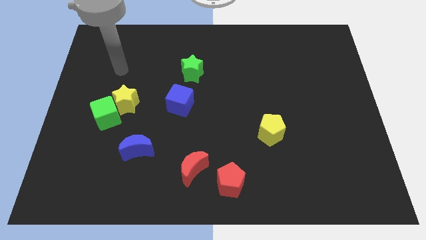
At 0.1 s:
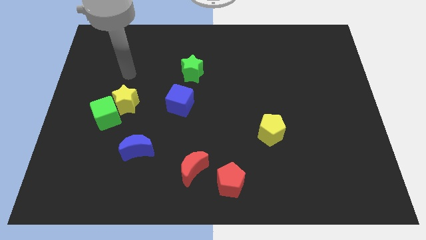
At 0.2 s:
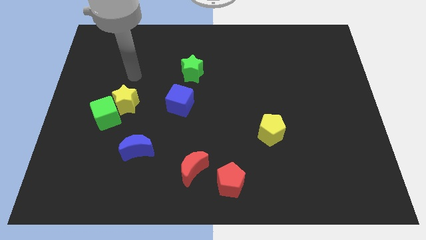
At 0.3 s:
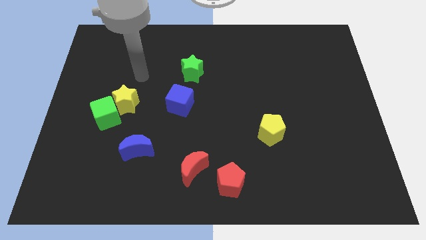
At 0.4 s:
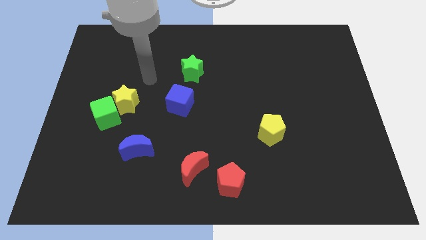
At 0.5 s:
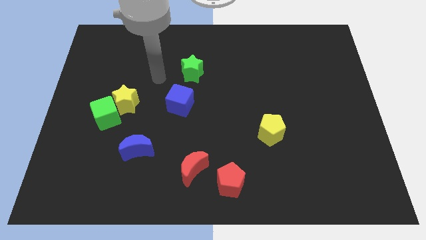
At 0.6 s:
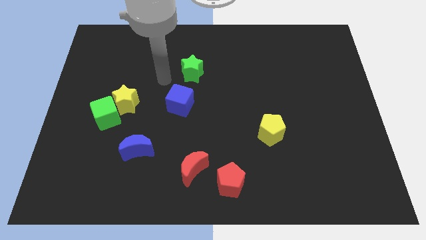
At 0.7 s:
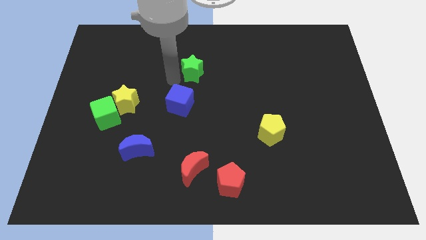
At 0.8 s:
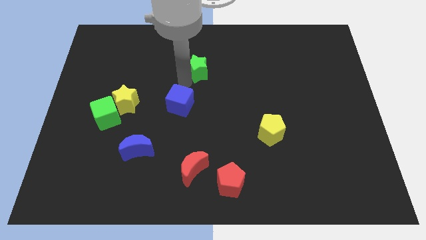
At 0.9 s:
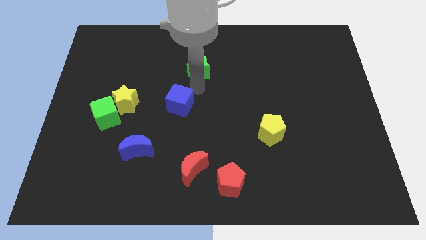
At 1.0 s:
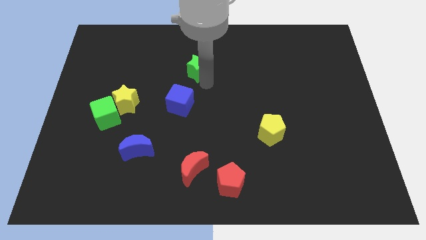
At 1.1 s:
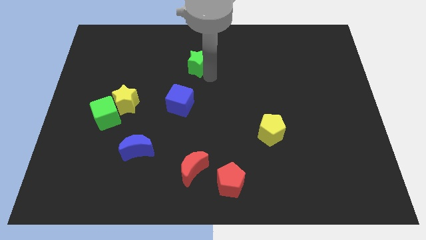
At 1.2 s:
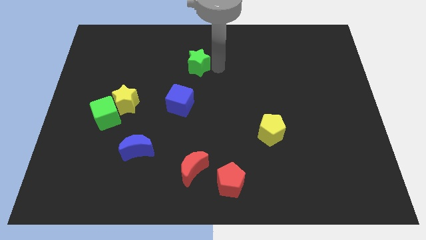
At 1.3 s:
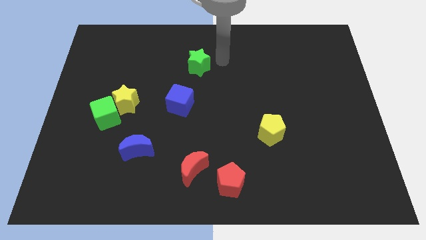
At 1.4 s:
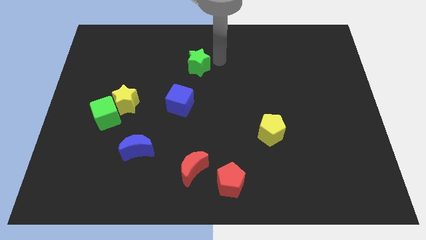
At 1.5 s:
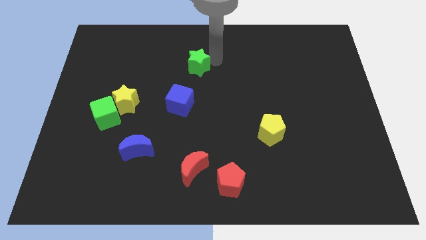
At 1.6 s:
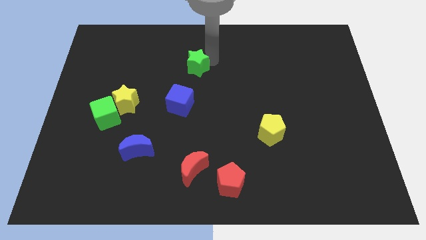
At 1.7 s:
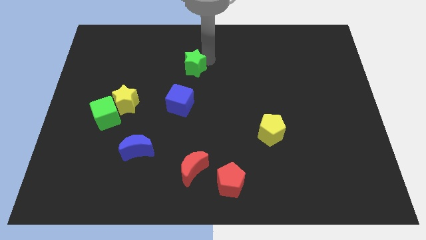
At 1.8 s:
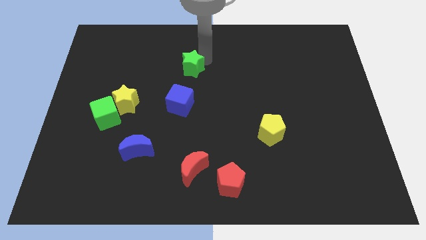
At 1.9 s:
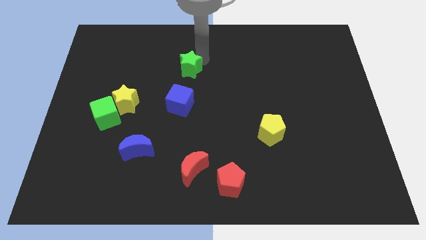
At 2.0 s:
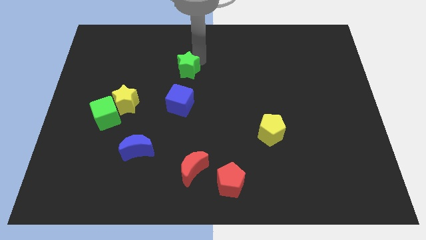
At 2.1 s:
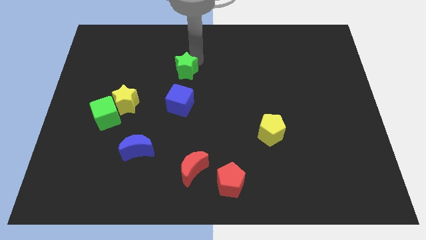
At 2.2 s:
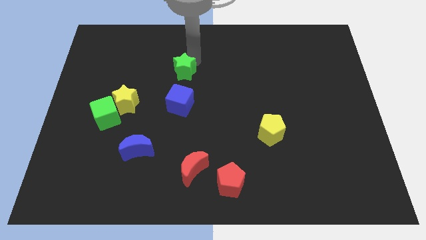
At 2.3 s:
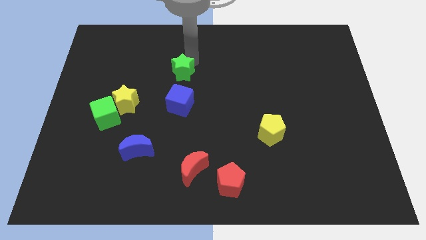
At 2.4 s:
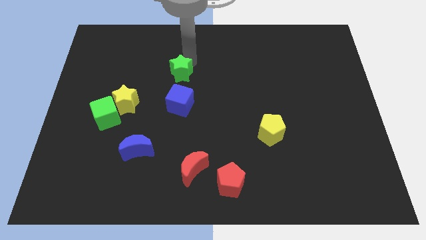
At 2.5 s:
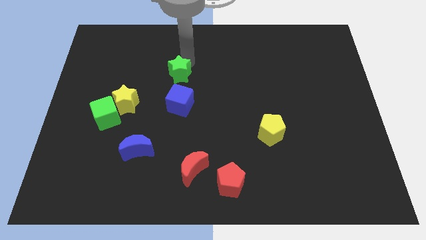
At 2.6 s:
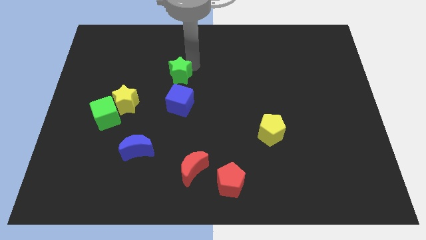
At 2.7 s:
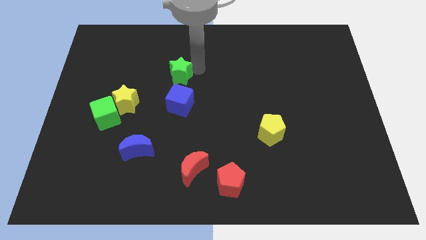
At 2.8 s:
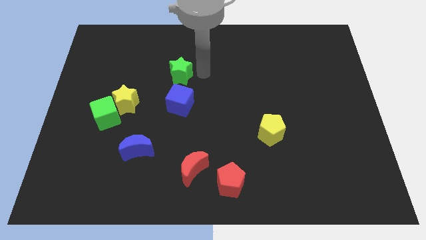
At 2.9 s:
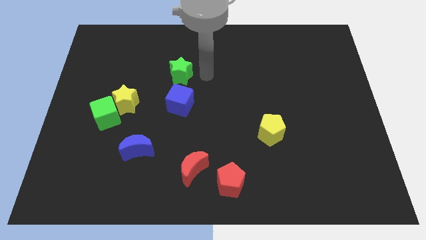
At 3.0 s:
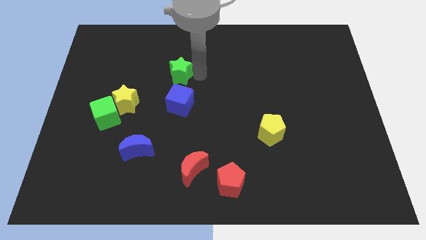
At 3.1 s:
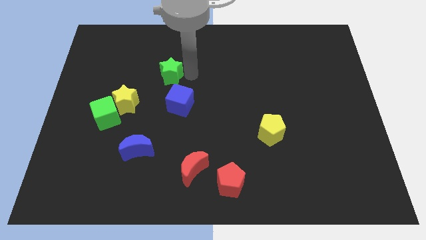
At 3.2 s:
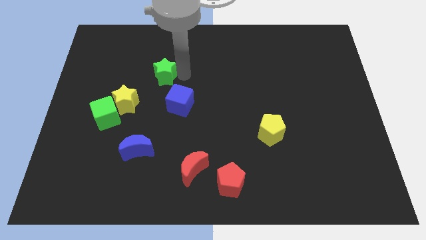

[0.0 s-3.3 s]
slide the green star left slightly

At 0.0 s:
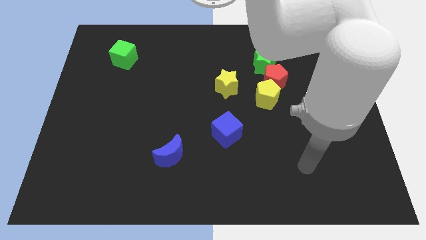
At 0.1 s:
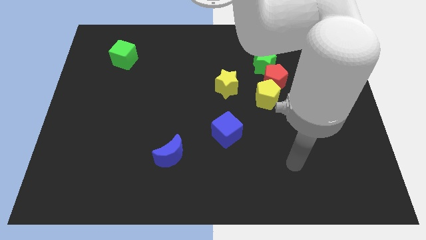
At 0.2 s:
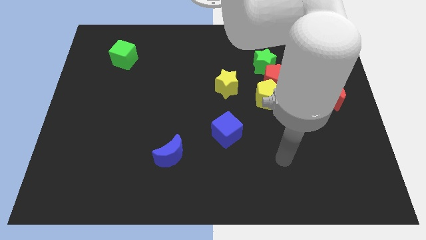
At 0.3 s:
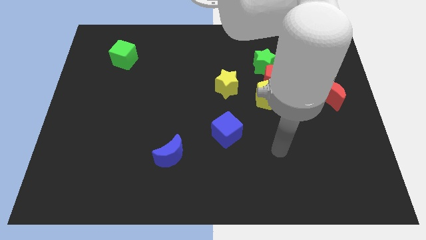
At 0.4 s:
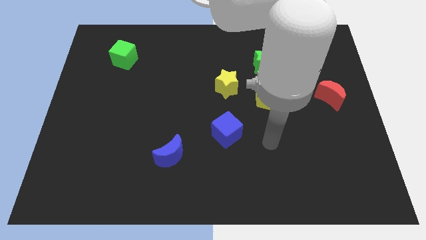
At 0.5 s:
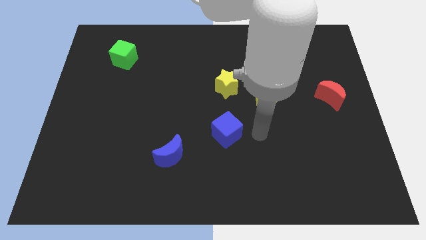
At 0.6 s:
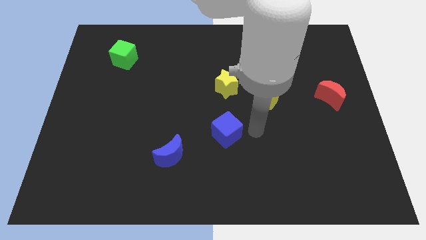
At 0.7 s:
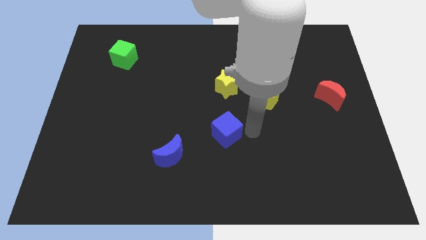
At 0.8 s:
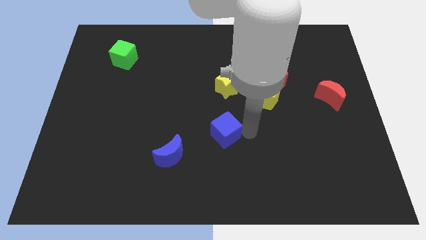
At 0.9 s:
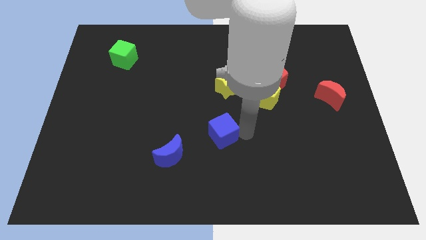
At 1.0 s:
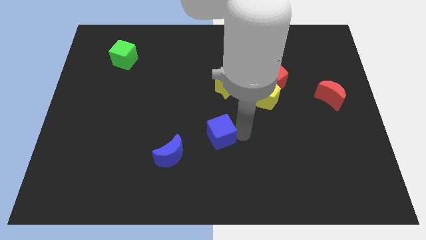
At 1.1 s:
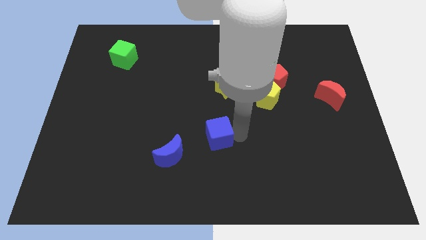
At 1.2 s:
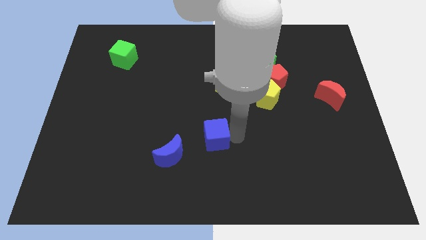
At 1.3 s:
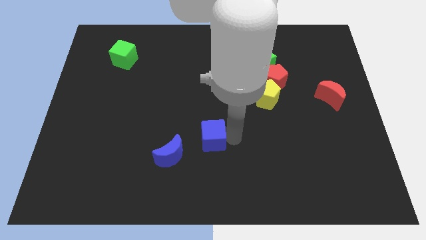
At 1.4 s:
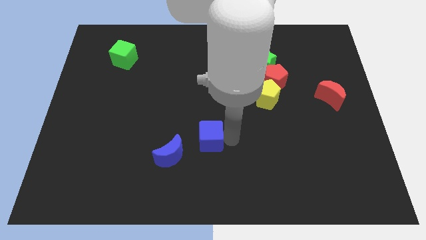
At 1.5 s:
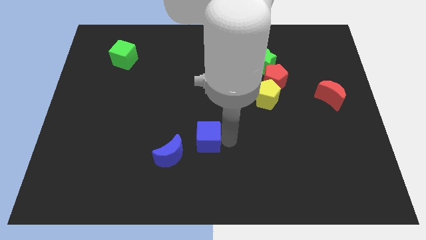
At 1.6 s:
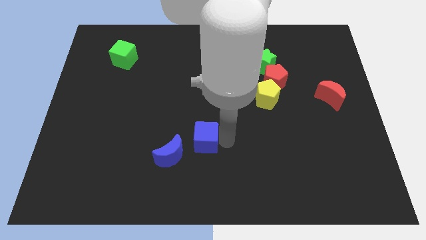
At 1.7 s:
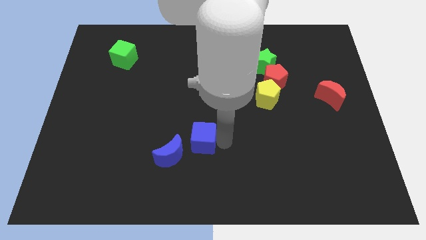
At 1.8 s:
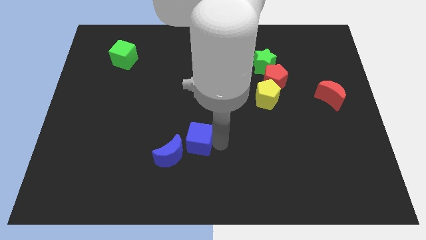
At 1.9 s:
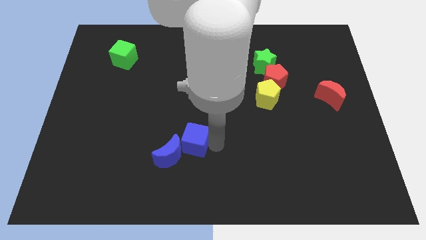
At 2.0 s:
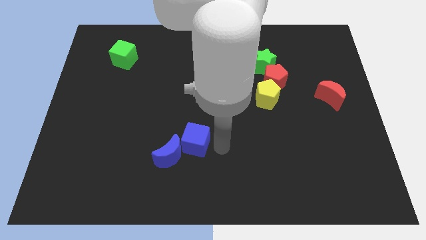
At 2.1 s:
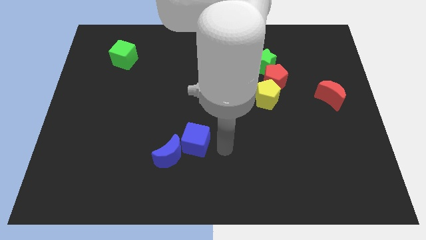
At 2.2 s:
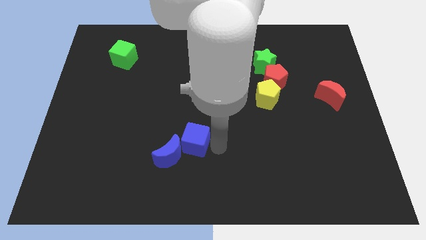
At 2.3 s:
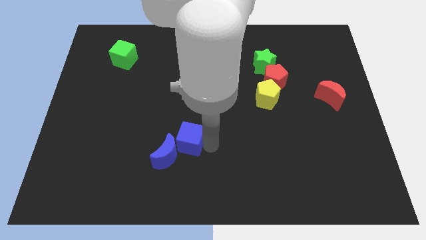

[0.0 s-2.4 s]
move the blue cube to the left a bit

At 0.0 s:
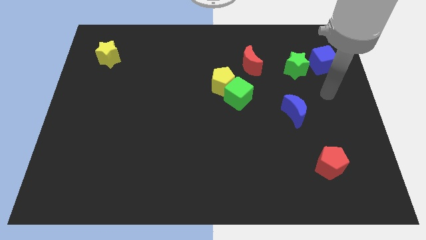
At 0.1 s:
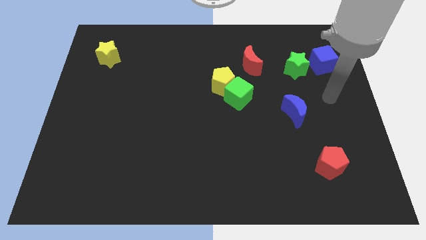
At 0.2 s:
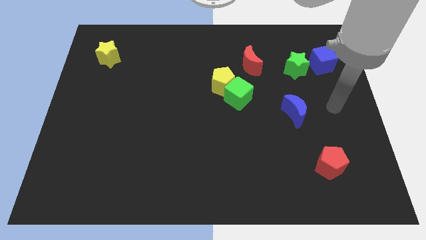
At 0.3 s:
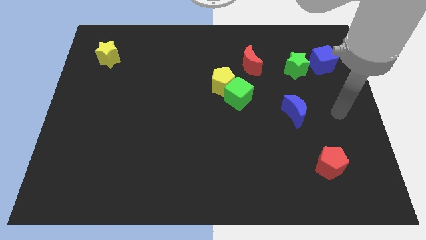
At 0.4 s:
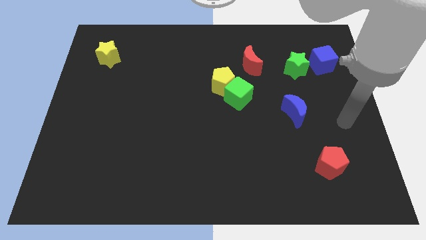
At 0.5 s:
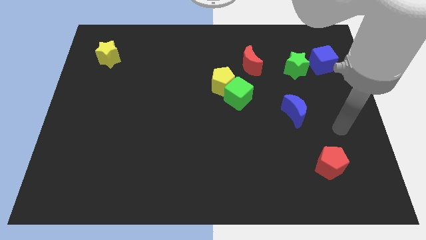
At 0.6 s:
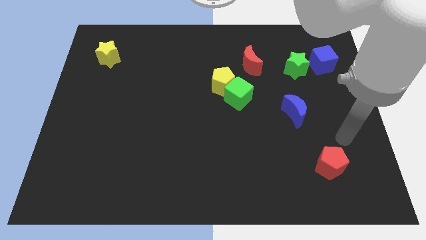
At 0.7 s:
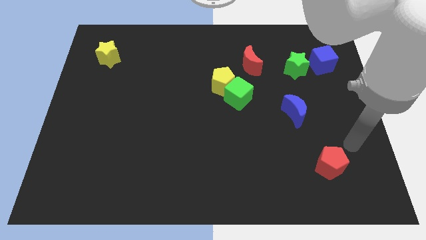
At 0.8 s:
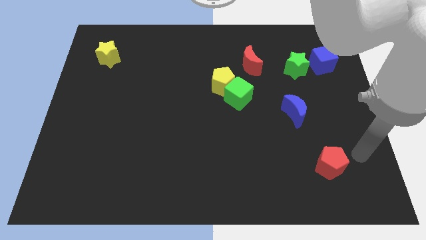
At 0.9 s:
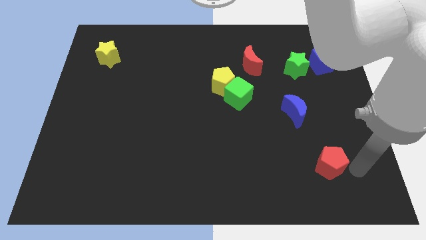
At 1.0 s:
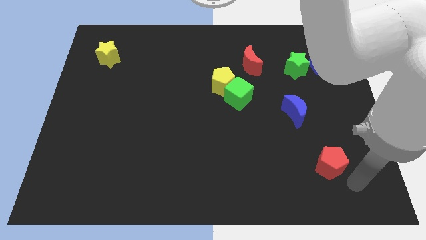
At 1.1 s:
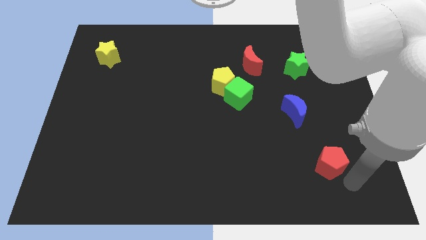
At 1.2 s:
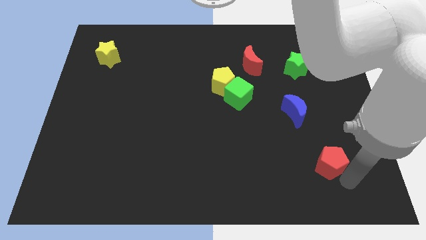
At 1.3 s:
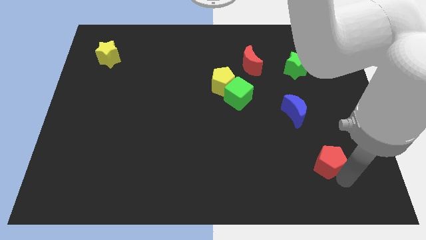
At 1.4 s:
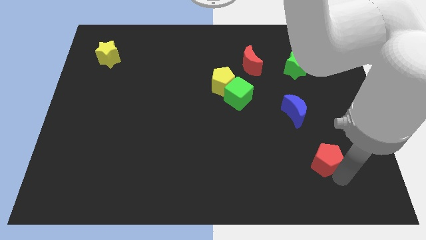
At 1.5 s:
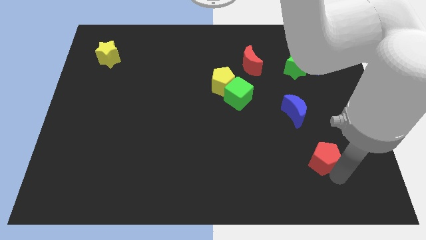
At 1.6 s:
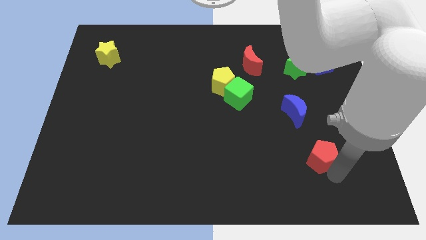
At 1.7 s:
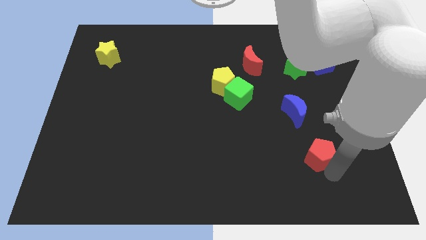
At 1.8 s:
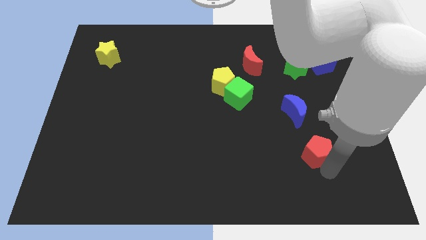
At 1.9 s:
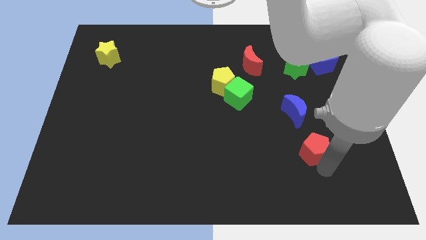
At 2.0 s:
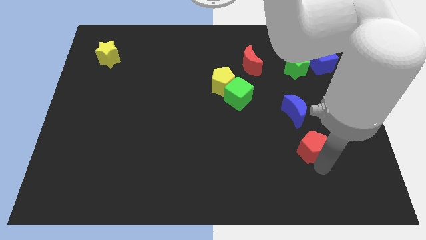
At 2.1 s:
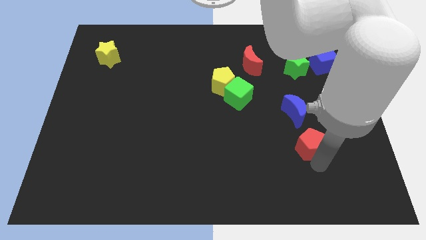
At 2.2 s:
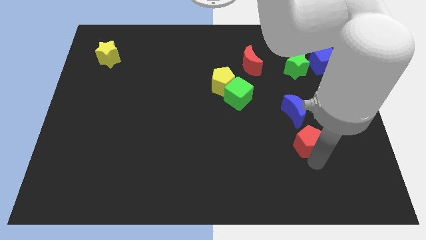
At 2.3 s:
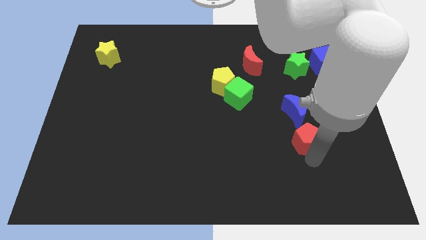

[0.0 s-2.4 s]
slightly move the red pentagon up and left diagonally
